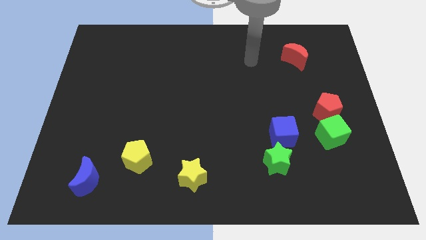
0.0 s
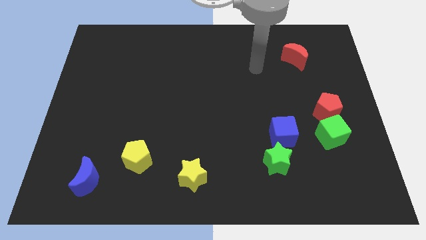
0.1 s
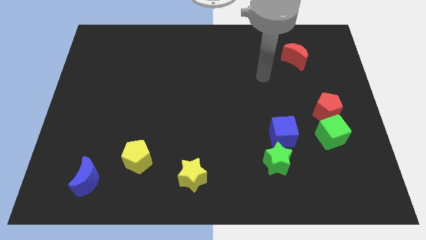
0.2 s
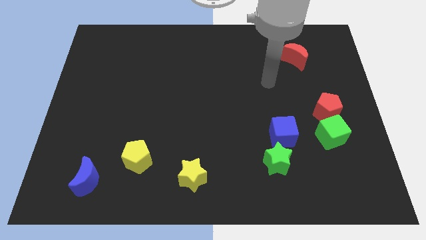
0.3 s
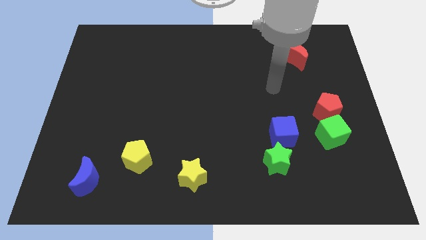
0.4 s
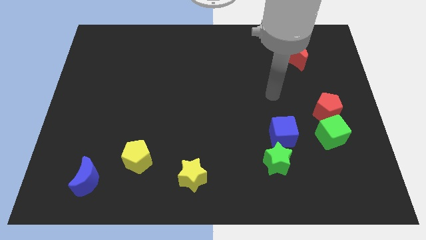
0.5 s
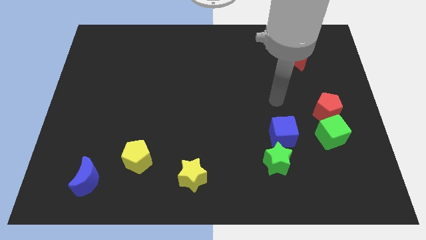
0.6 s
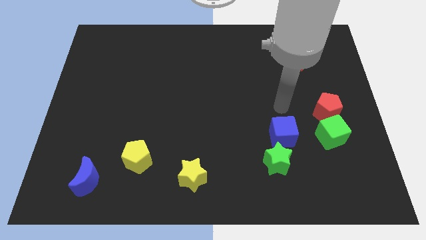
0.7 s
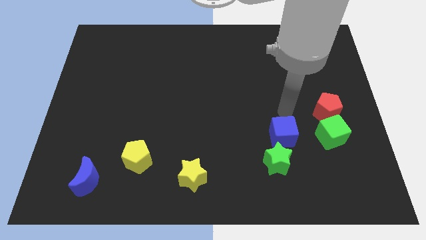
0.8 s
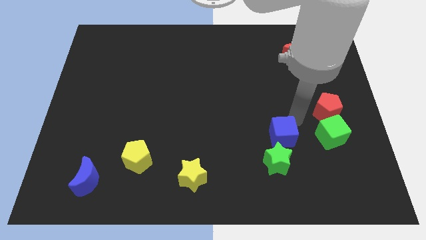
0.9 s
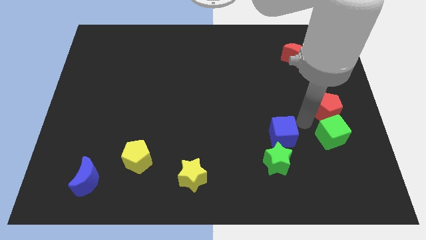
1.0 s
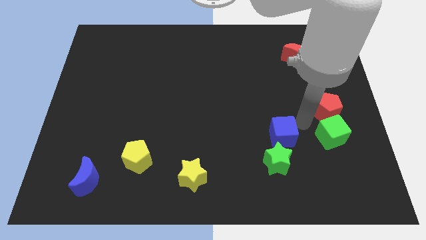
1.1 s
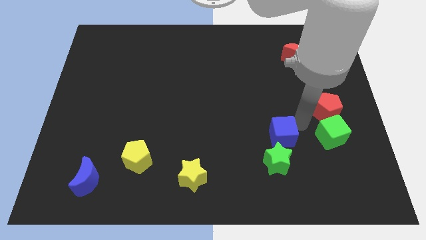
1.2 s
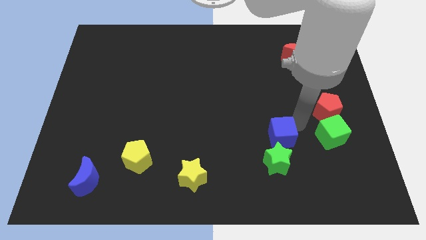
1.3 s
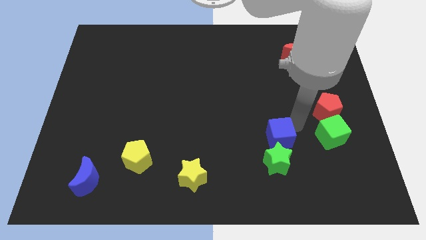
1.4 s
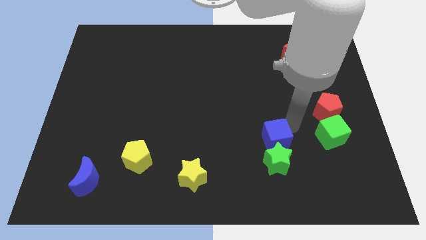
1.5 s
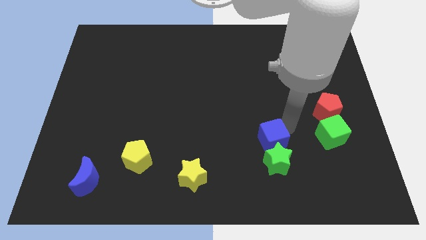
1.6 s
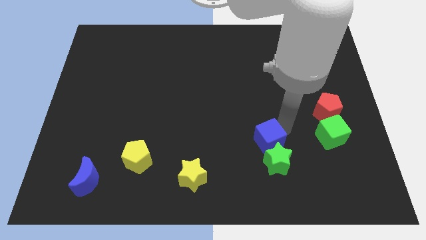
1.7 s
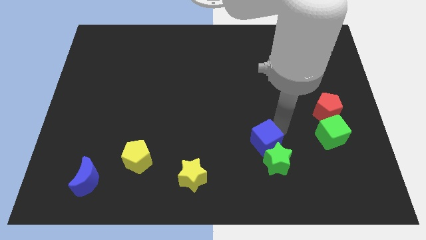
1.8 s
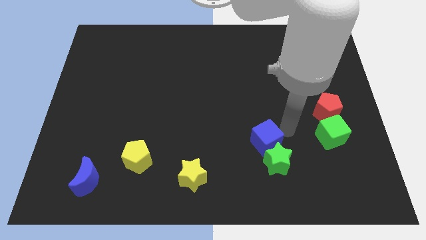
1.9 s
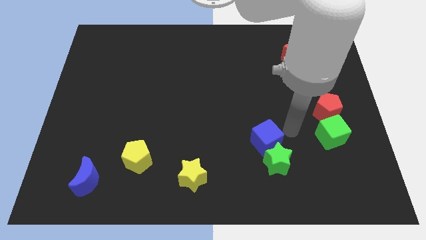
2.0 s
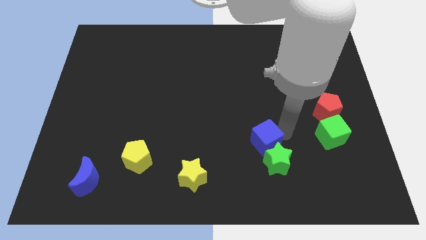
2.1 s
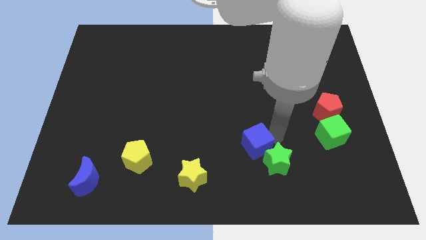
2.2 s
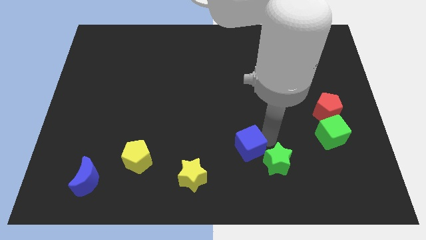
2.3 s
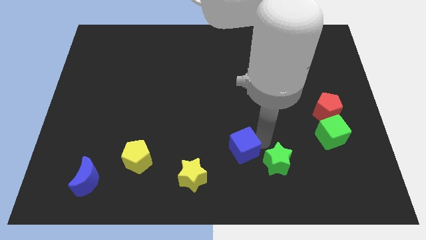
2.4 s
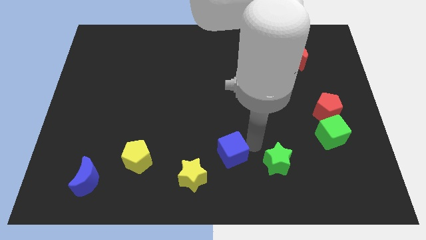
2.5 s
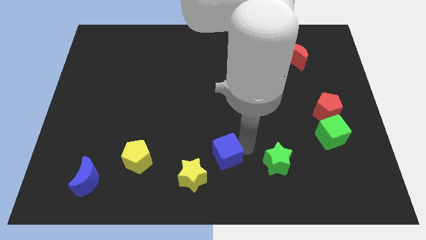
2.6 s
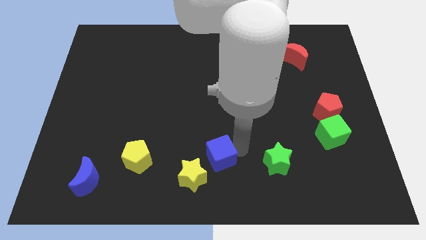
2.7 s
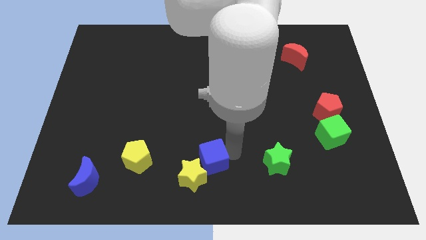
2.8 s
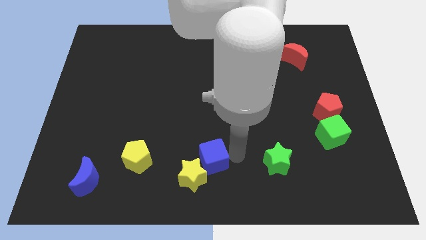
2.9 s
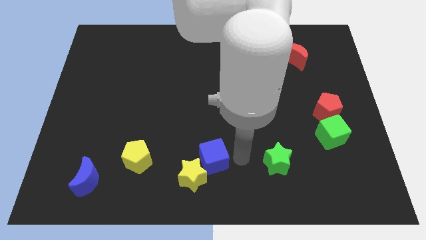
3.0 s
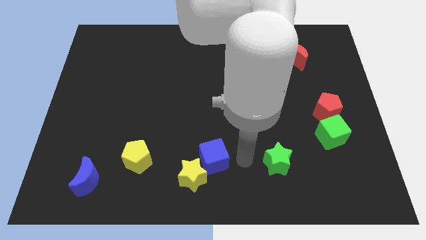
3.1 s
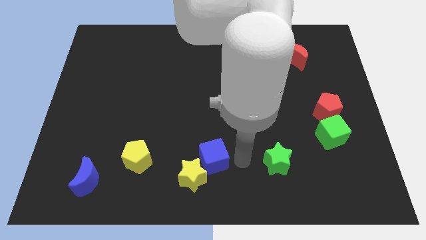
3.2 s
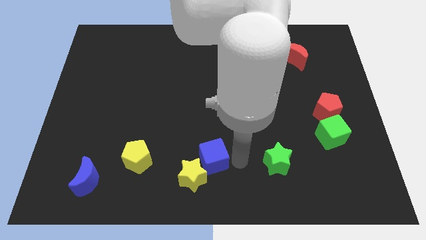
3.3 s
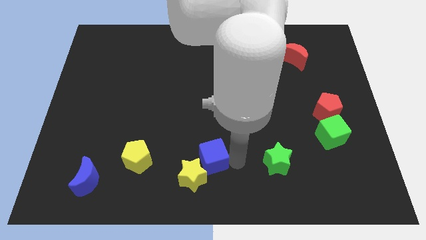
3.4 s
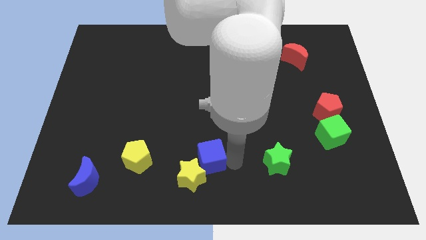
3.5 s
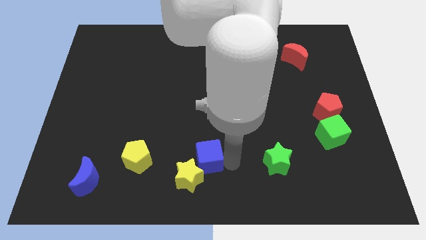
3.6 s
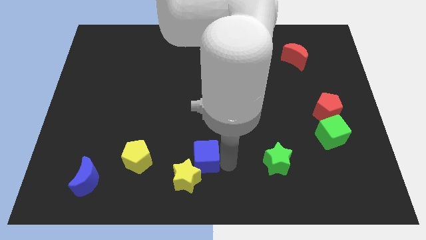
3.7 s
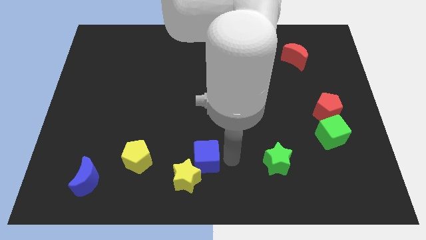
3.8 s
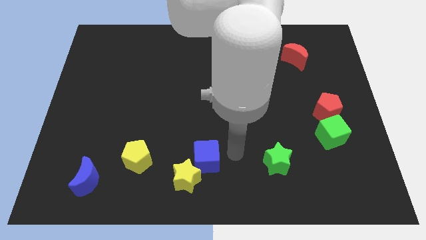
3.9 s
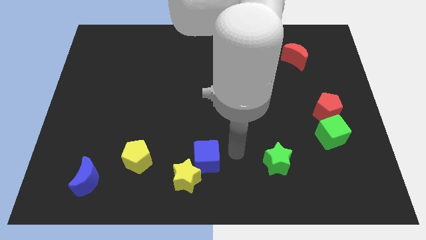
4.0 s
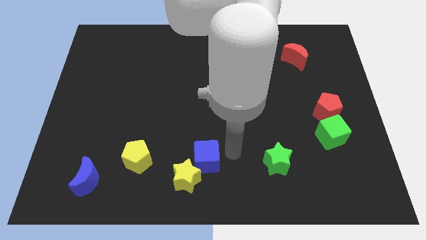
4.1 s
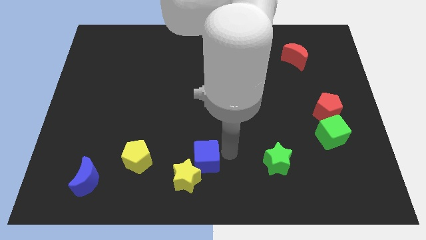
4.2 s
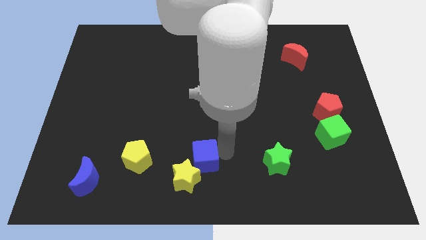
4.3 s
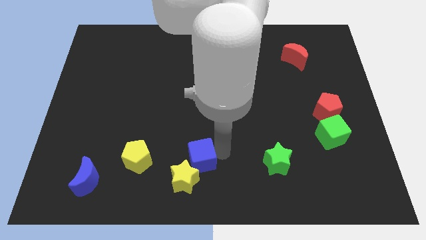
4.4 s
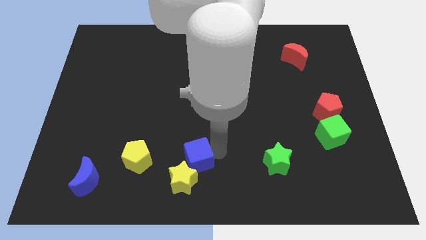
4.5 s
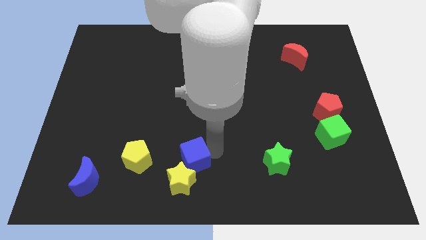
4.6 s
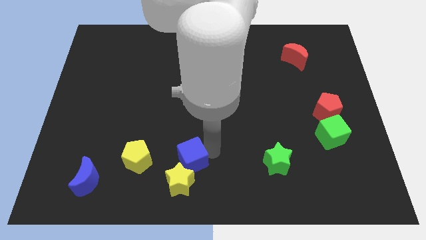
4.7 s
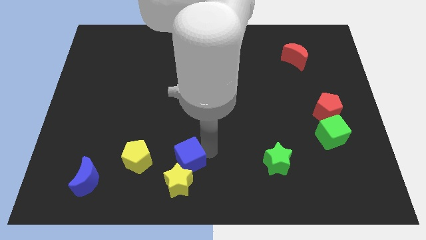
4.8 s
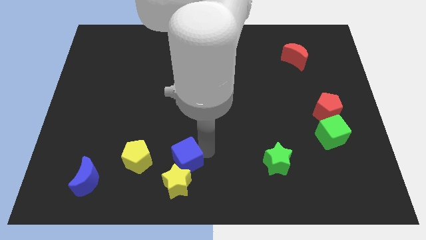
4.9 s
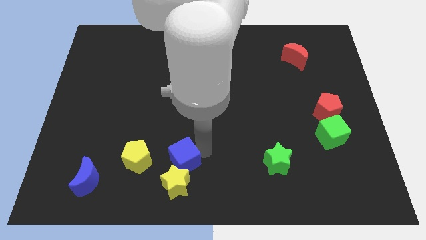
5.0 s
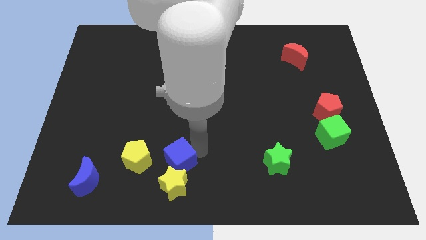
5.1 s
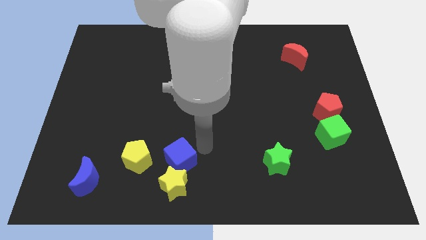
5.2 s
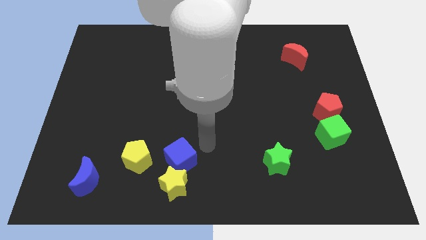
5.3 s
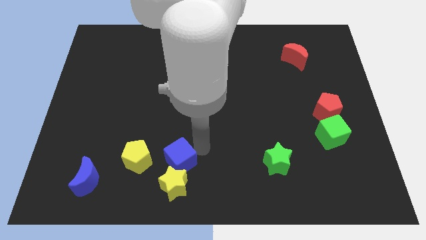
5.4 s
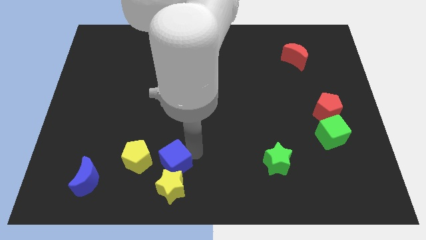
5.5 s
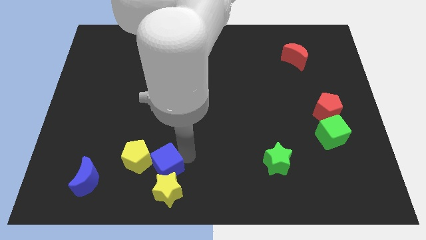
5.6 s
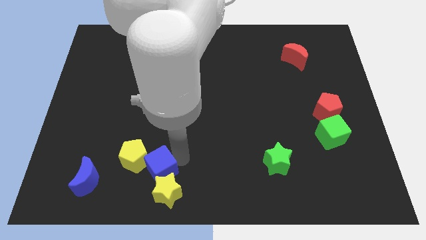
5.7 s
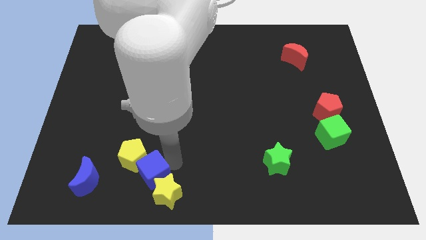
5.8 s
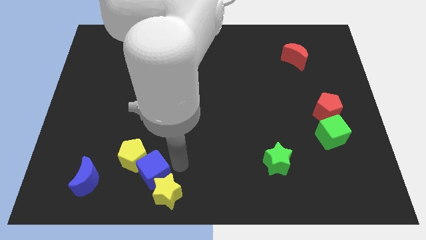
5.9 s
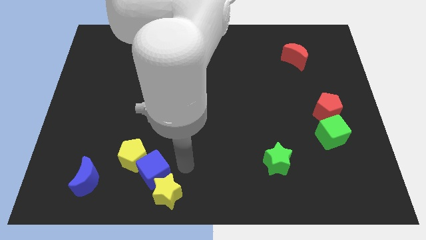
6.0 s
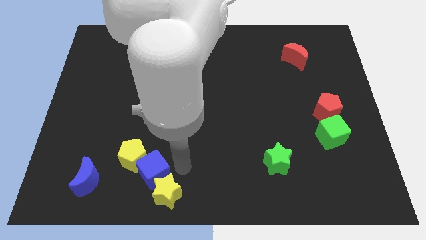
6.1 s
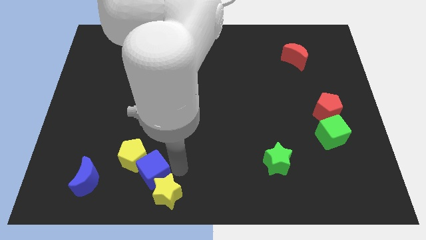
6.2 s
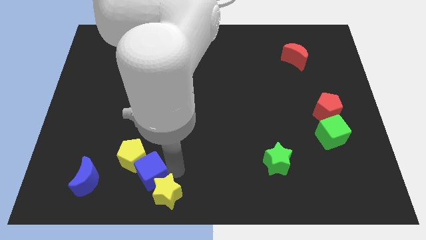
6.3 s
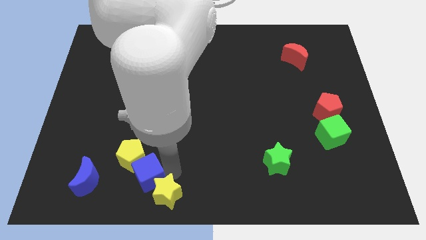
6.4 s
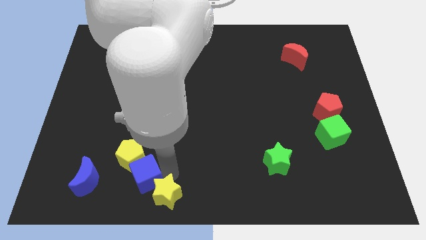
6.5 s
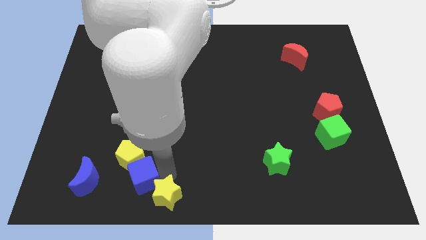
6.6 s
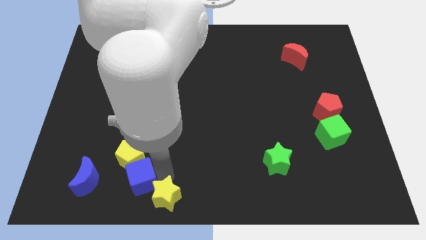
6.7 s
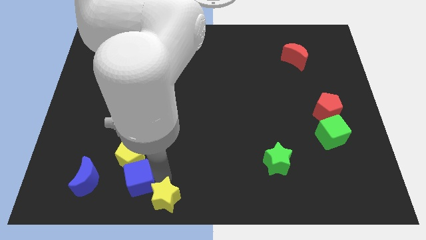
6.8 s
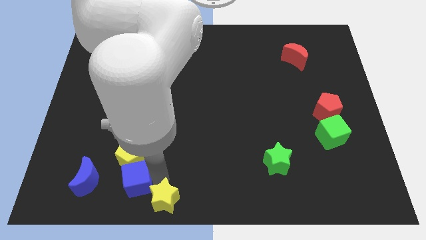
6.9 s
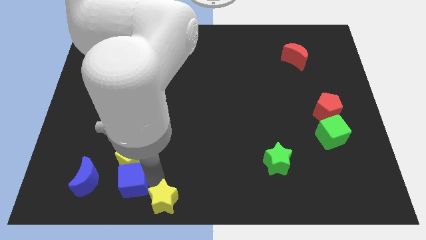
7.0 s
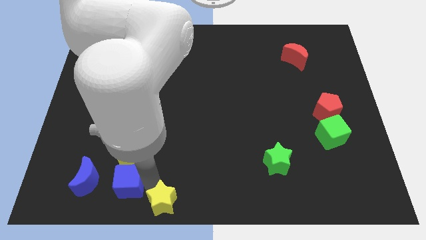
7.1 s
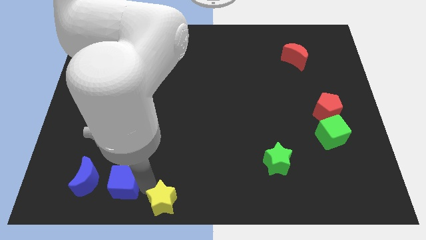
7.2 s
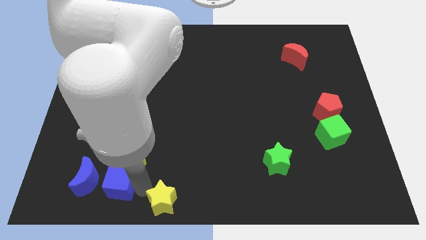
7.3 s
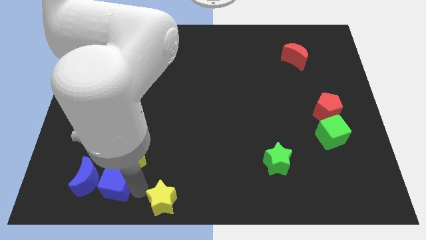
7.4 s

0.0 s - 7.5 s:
move the blue cube towards the blue moon
